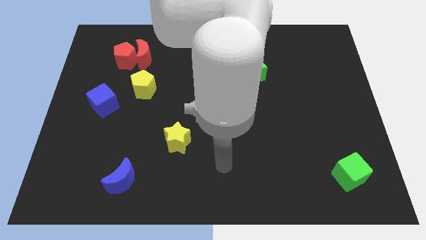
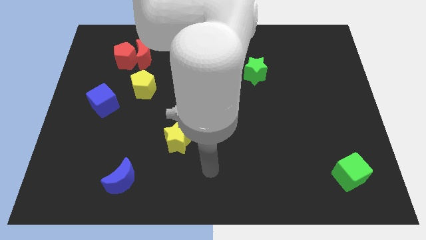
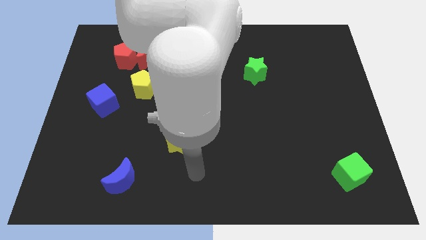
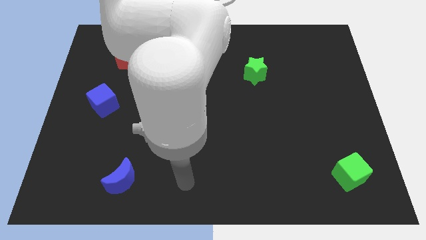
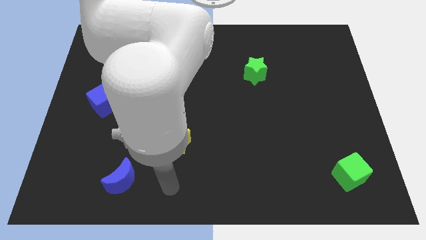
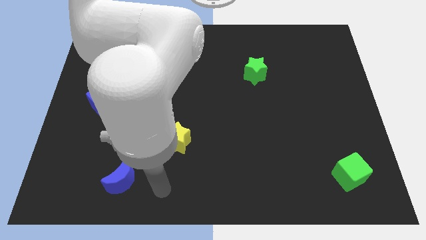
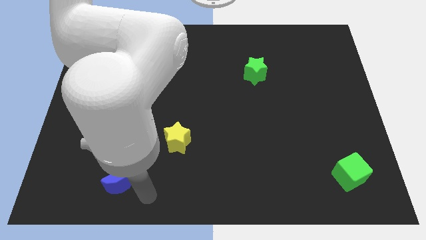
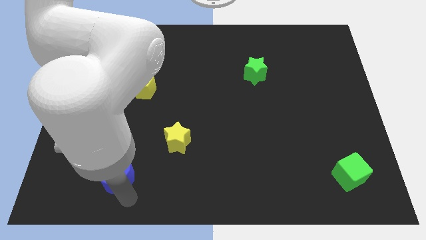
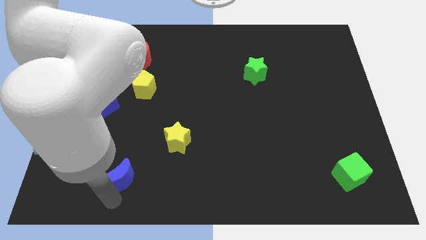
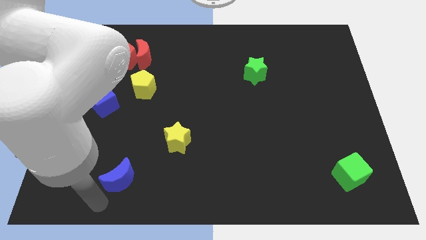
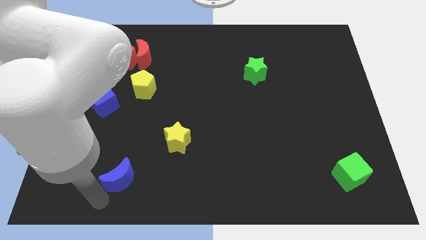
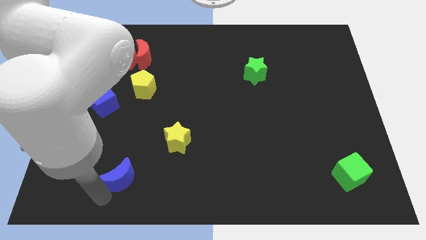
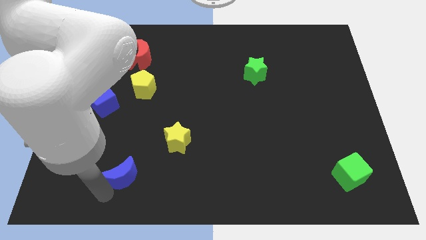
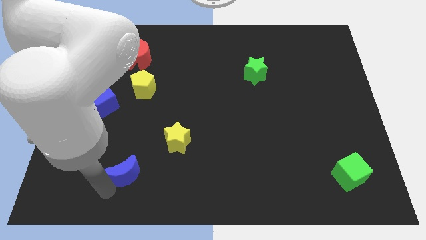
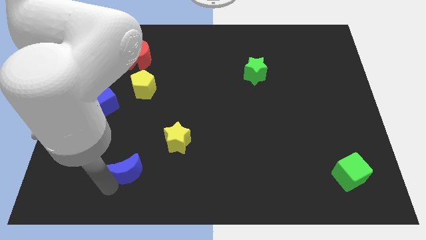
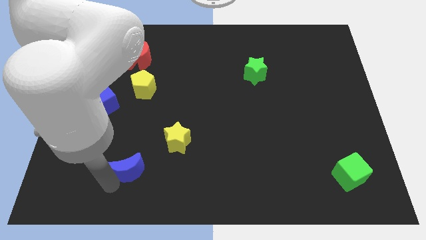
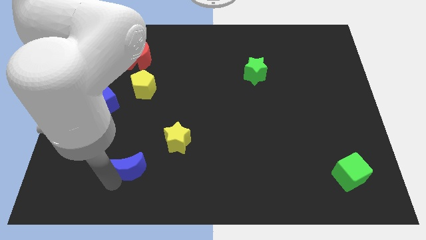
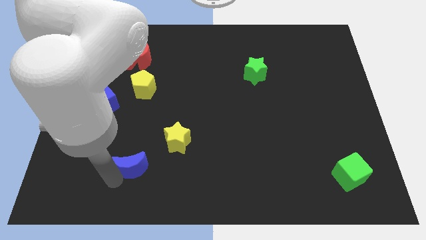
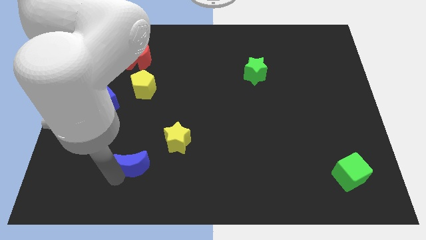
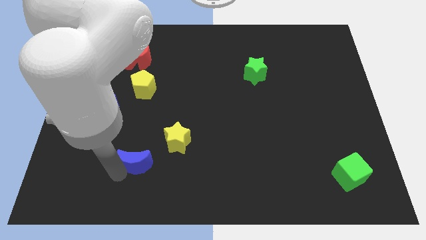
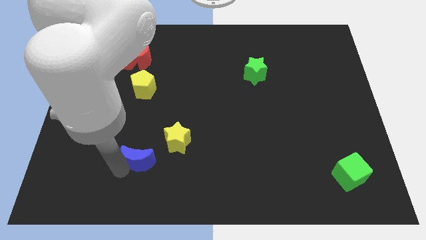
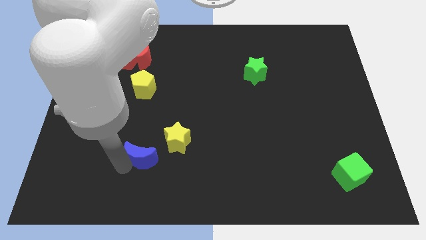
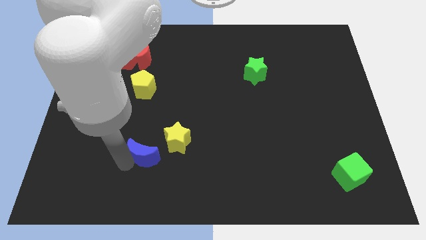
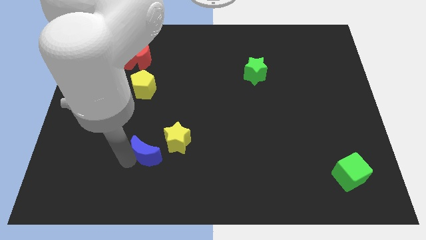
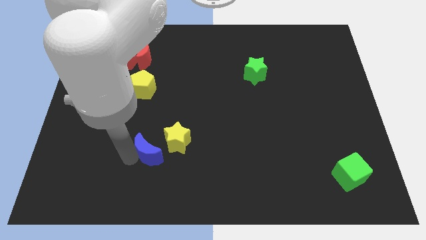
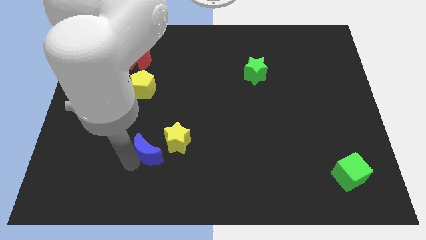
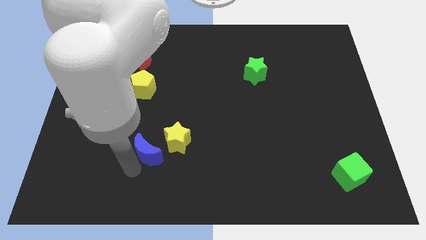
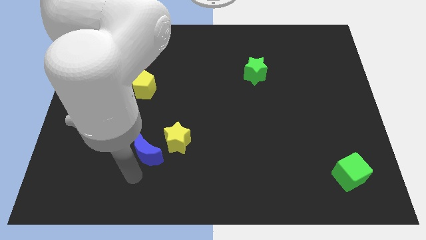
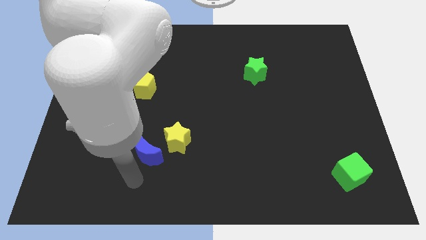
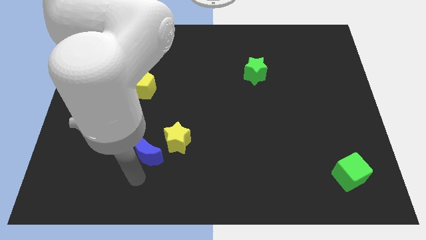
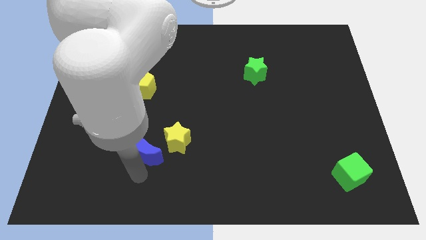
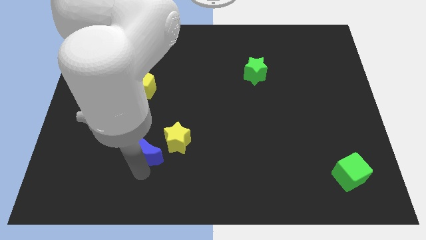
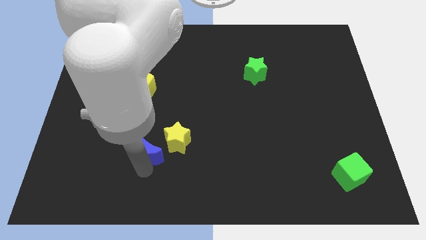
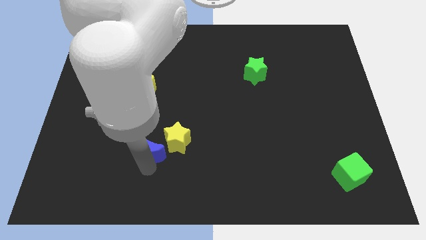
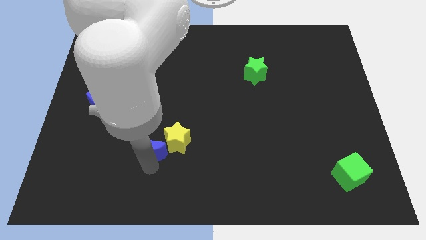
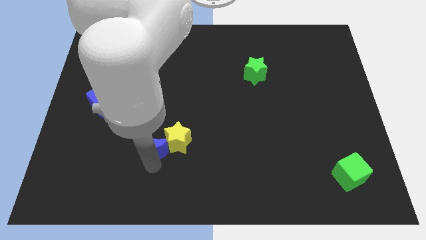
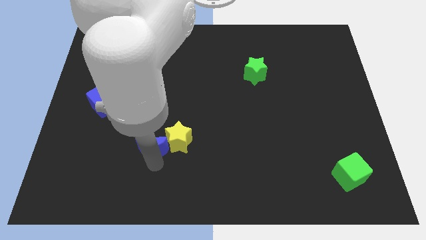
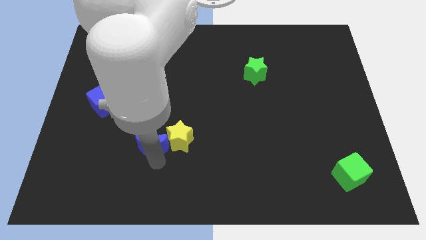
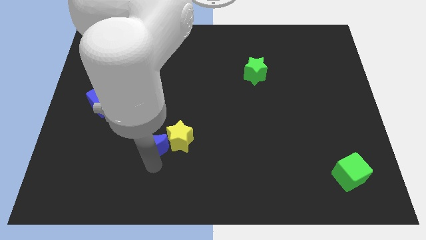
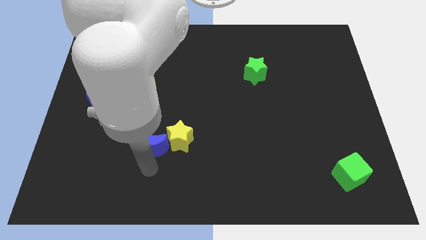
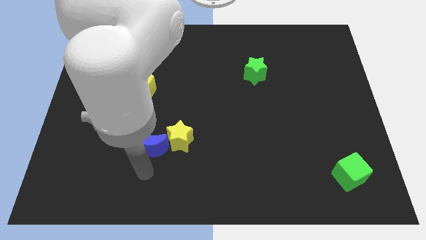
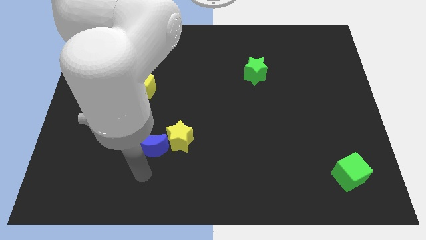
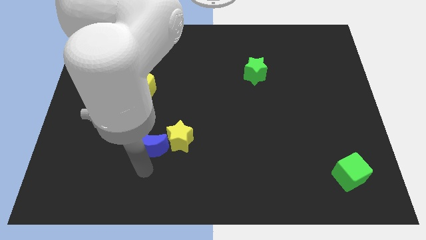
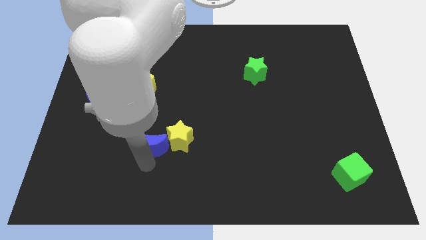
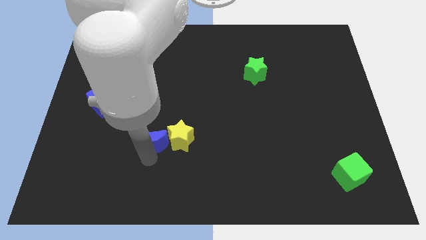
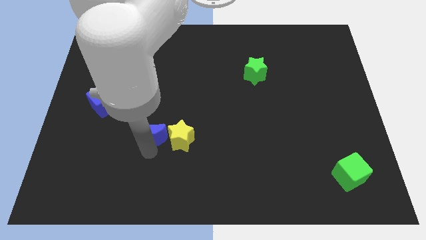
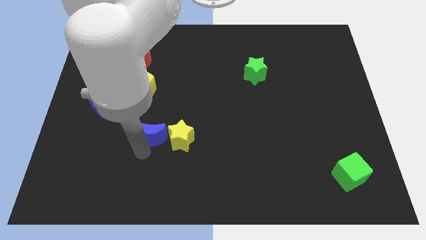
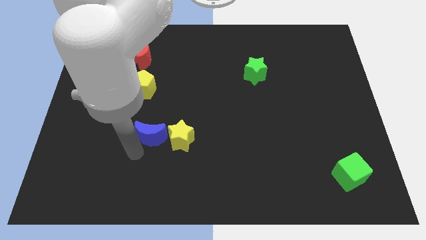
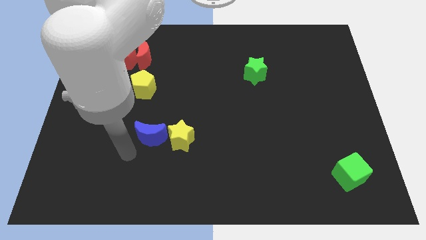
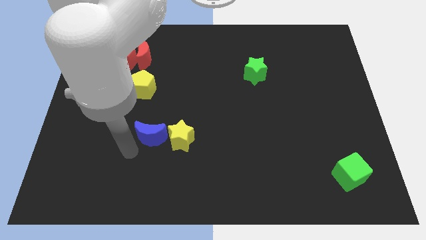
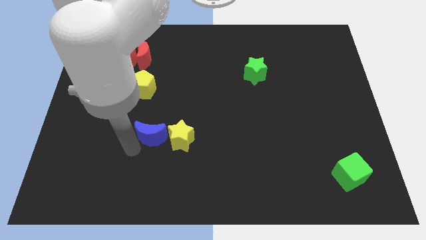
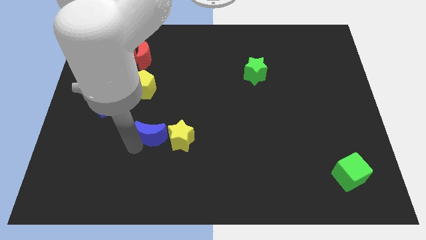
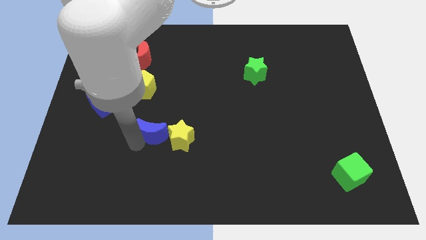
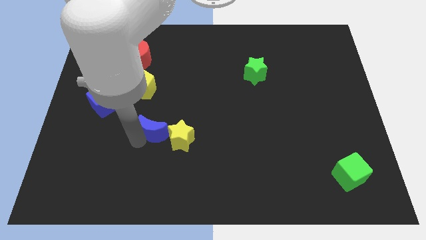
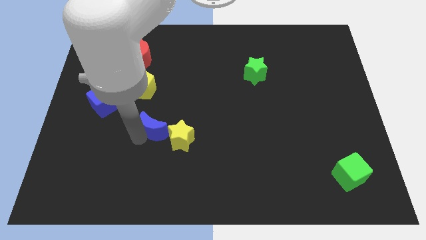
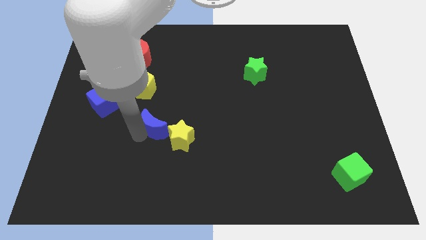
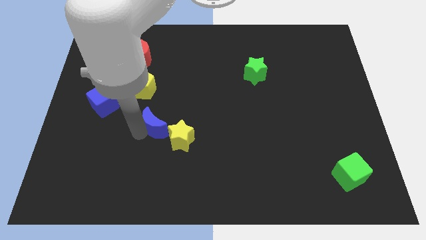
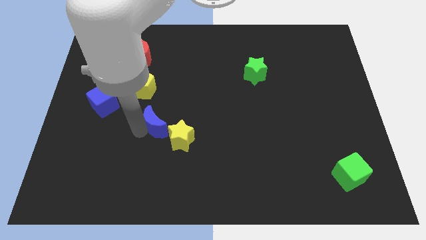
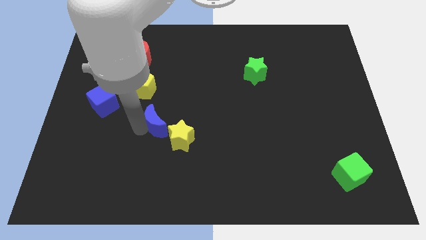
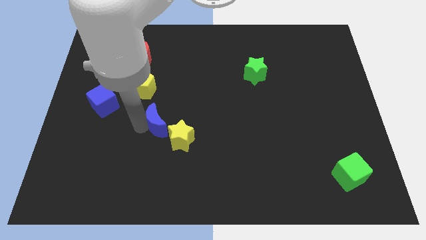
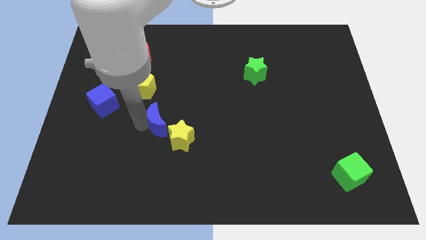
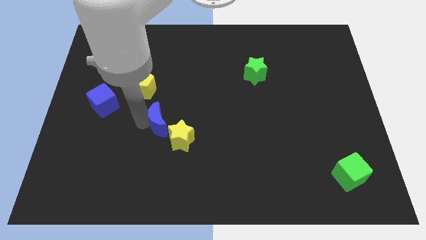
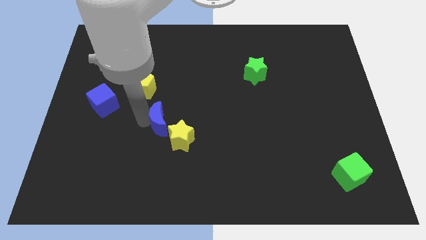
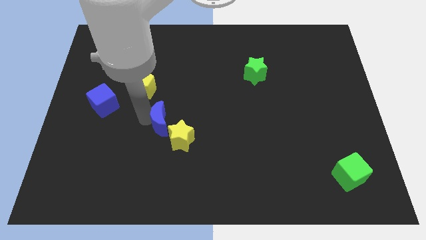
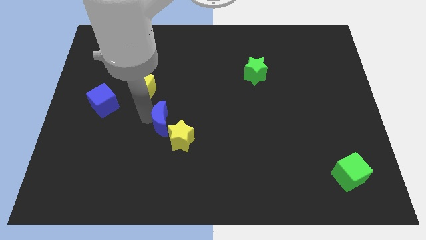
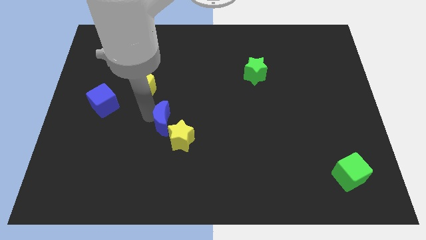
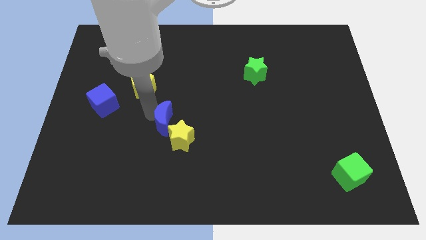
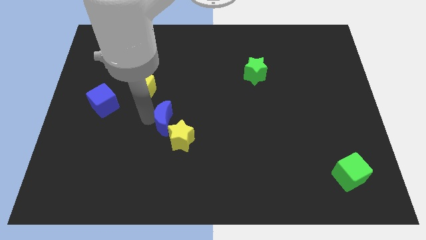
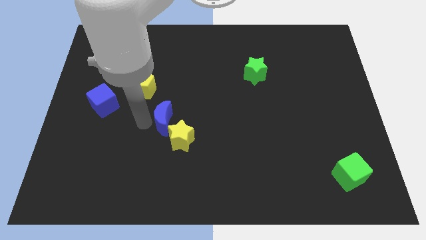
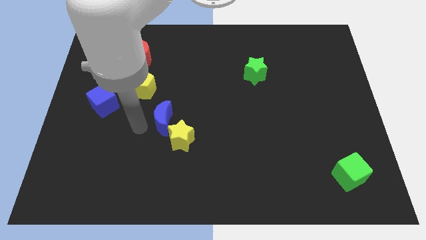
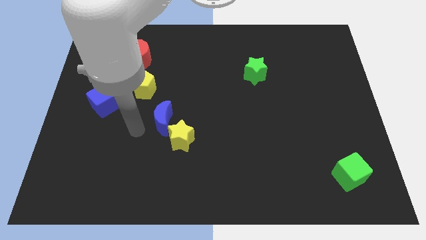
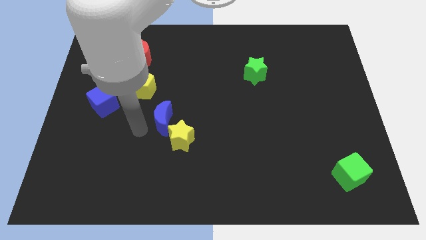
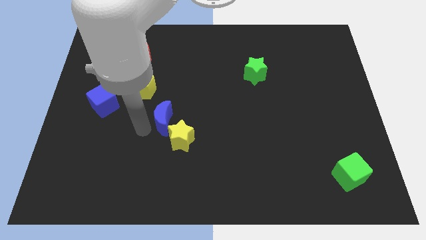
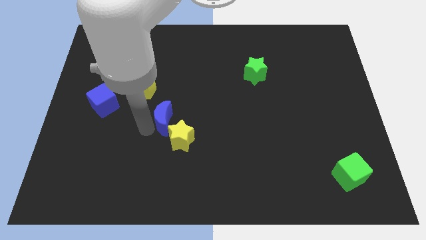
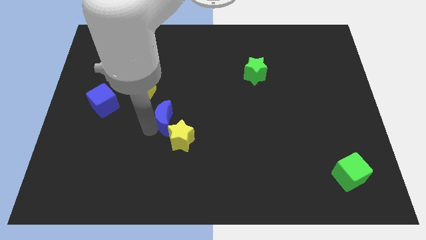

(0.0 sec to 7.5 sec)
slide the blue moon to the middle
